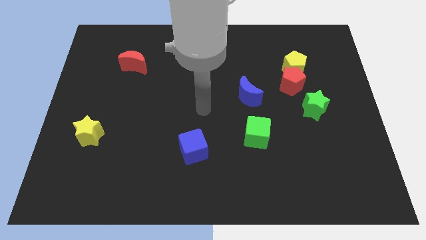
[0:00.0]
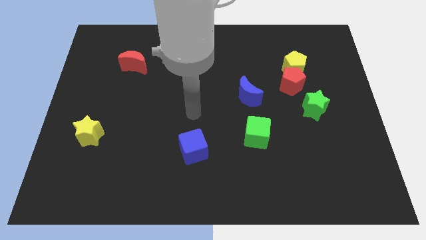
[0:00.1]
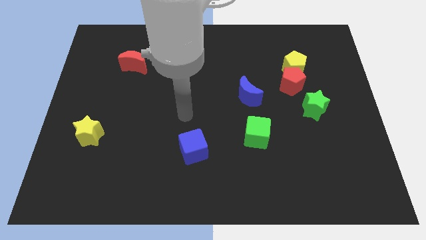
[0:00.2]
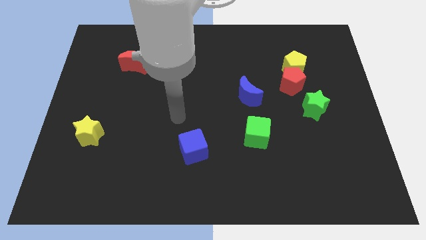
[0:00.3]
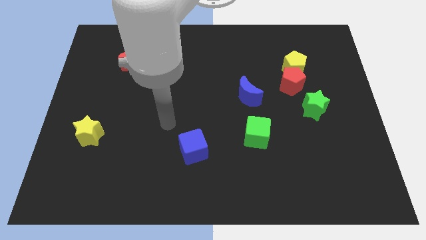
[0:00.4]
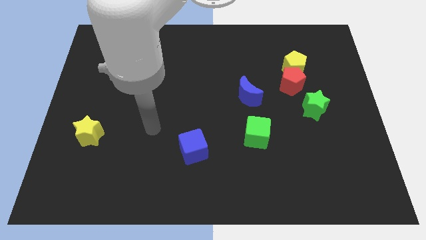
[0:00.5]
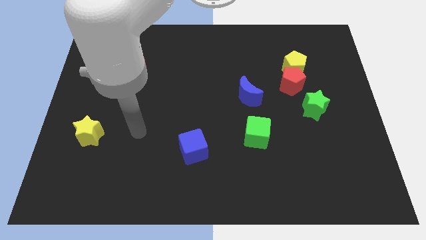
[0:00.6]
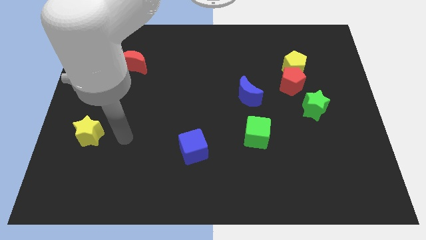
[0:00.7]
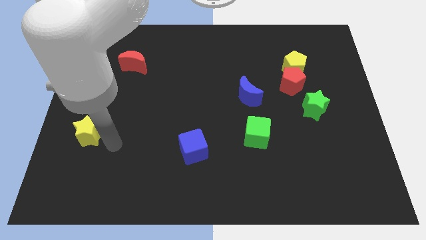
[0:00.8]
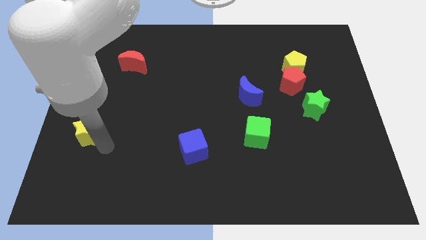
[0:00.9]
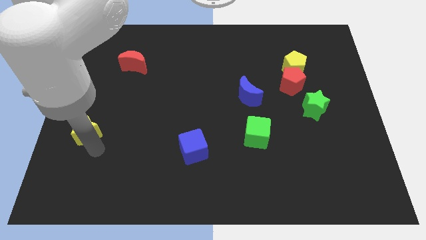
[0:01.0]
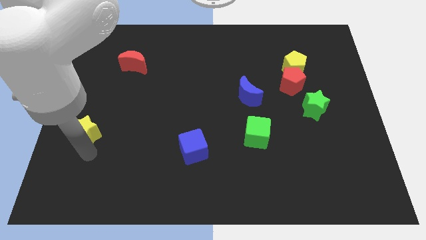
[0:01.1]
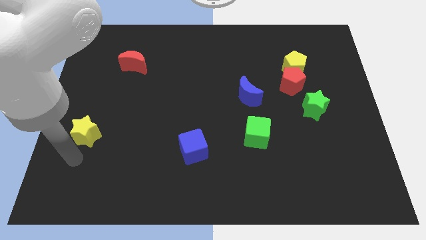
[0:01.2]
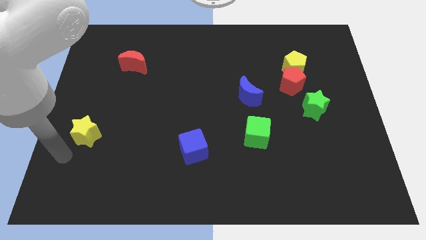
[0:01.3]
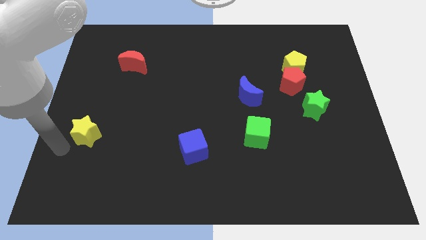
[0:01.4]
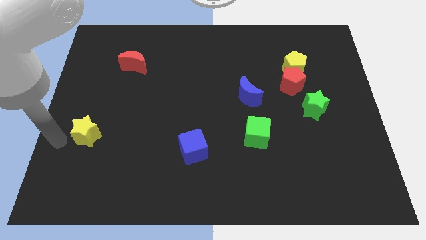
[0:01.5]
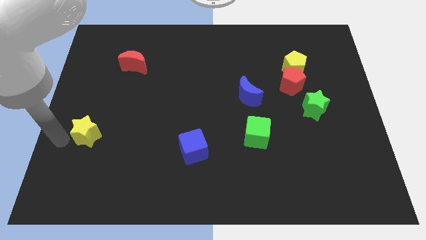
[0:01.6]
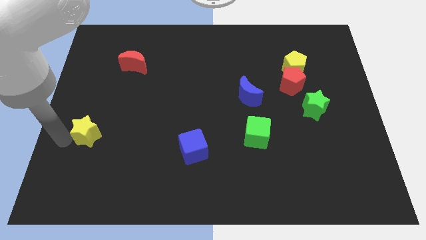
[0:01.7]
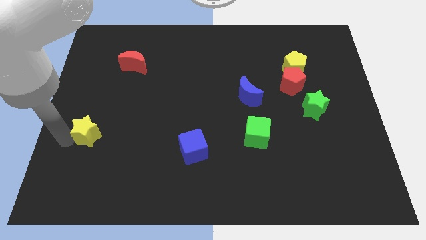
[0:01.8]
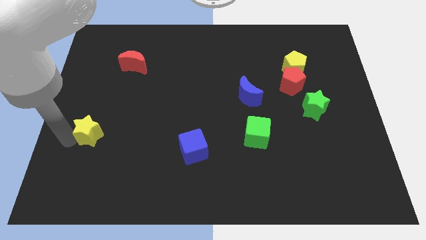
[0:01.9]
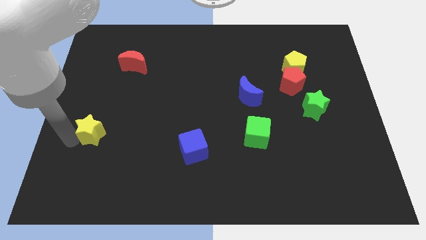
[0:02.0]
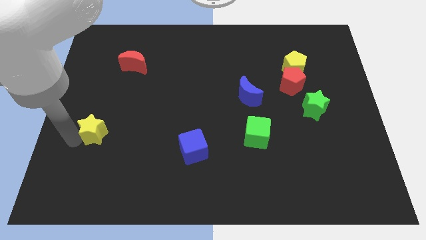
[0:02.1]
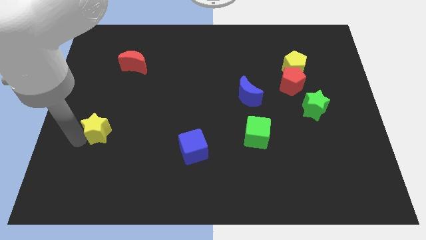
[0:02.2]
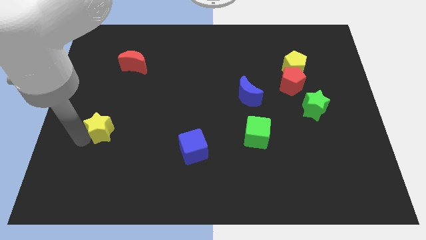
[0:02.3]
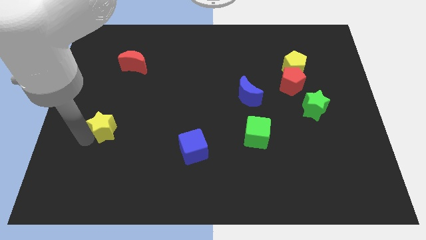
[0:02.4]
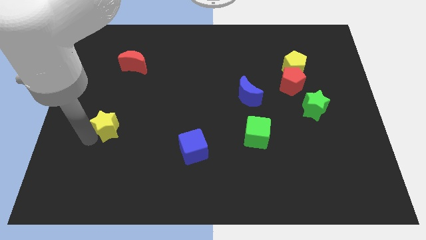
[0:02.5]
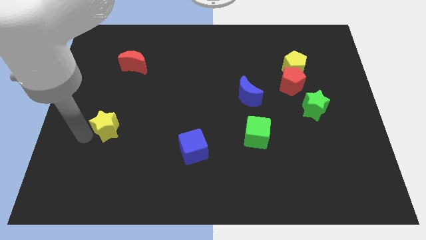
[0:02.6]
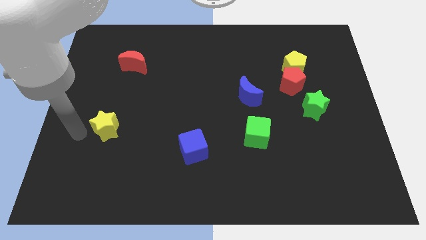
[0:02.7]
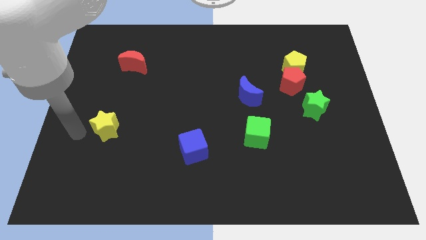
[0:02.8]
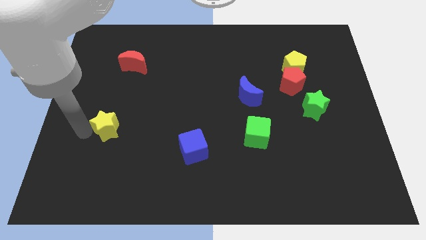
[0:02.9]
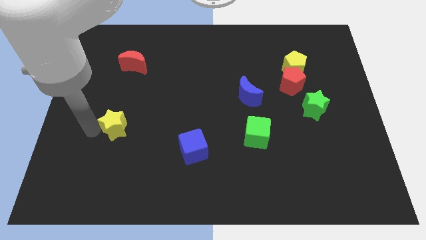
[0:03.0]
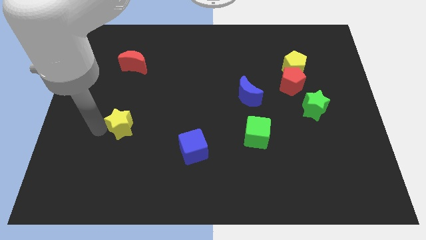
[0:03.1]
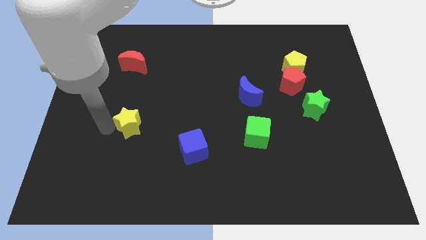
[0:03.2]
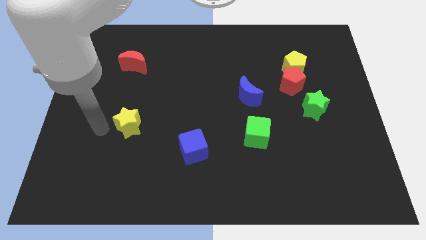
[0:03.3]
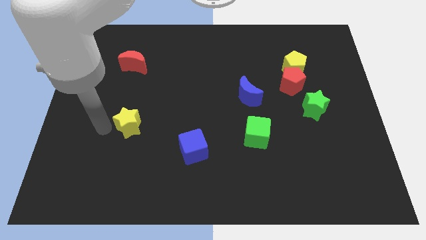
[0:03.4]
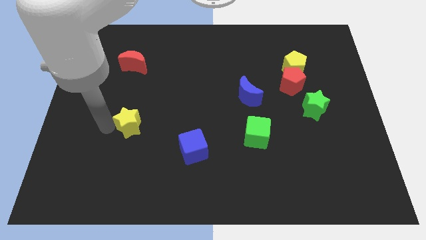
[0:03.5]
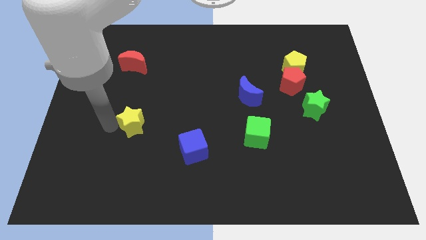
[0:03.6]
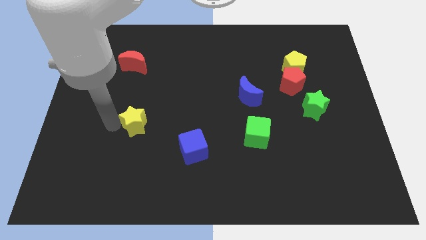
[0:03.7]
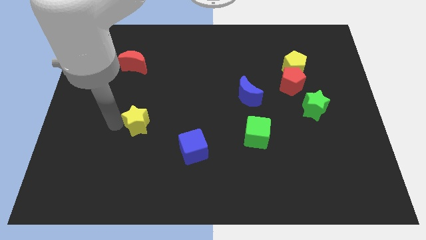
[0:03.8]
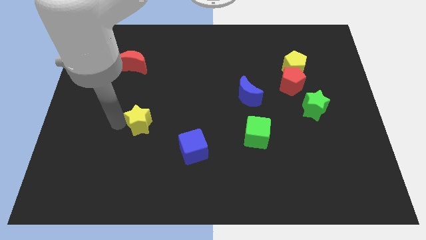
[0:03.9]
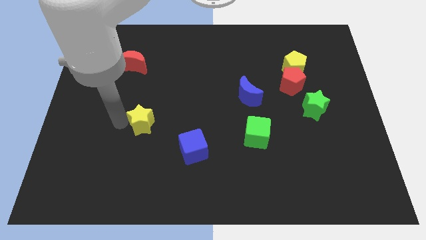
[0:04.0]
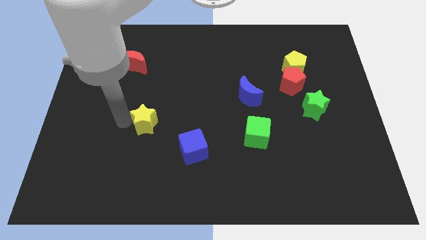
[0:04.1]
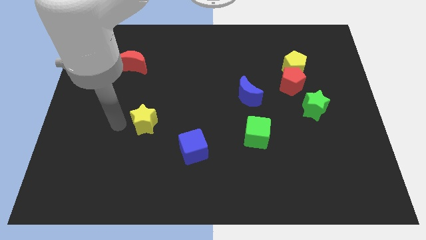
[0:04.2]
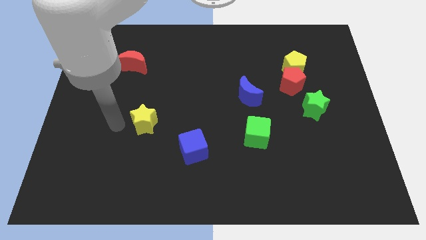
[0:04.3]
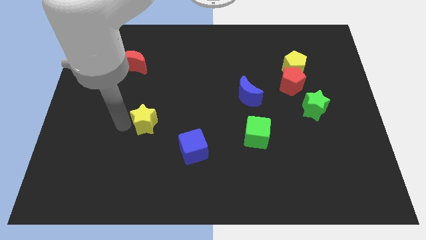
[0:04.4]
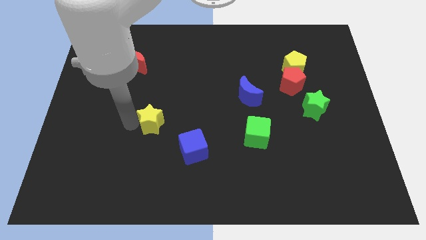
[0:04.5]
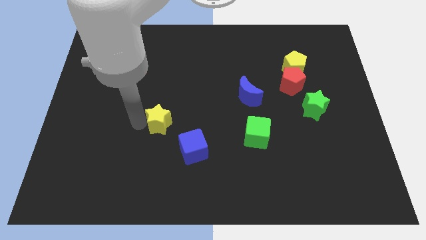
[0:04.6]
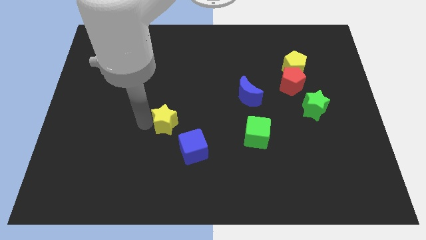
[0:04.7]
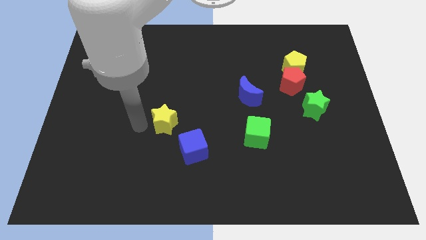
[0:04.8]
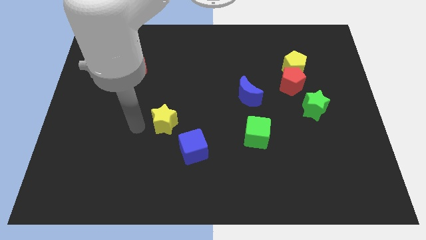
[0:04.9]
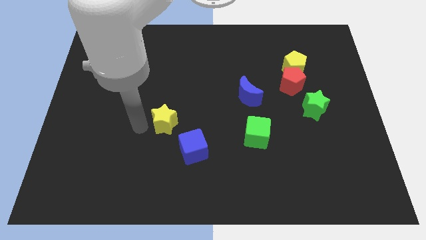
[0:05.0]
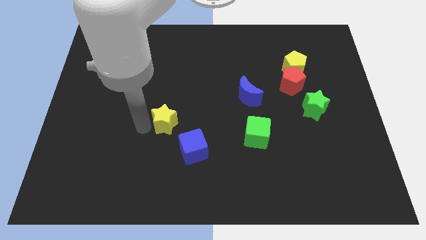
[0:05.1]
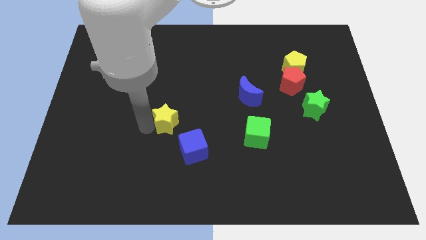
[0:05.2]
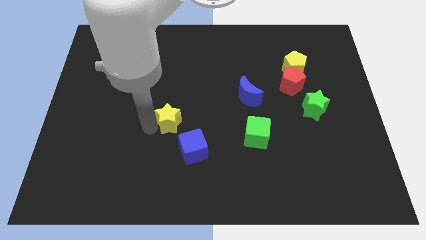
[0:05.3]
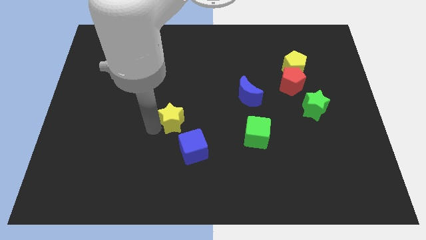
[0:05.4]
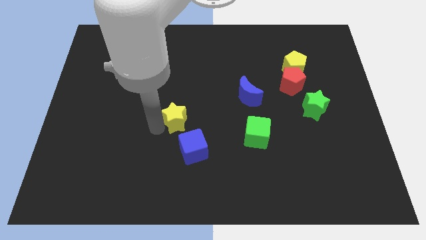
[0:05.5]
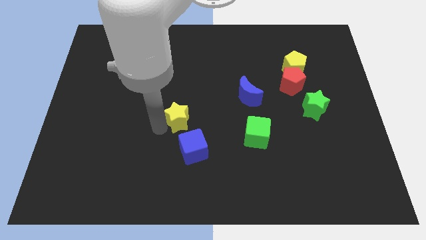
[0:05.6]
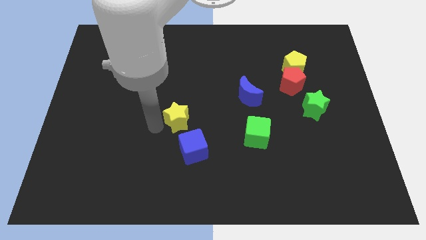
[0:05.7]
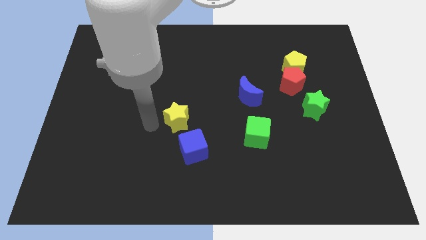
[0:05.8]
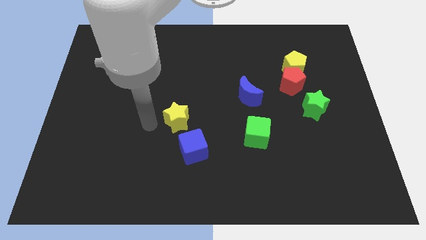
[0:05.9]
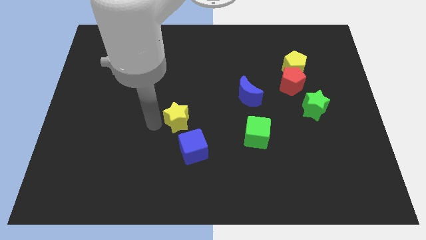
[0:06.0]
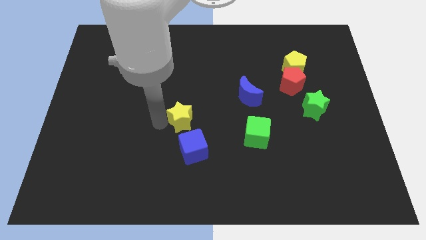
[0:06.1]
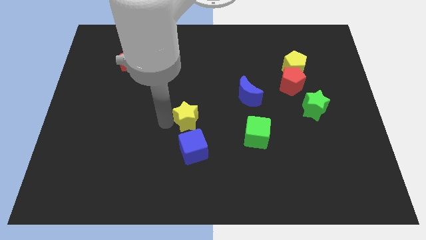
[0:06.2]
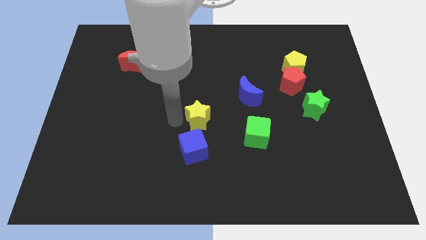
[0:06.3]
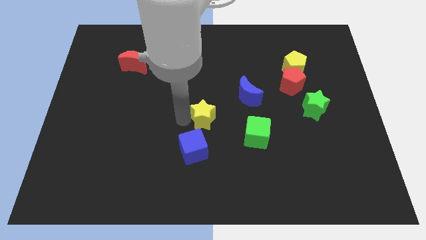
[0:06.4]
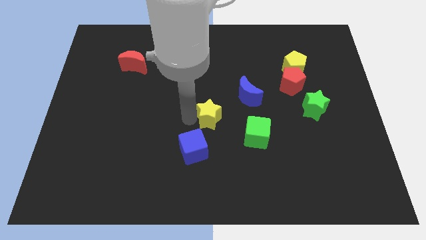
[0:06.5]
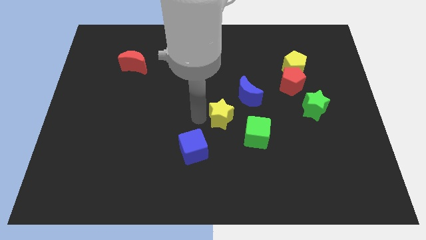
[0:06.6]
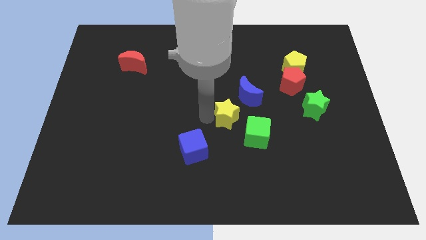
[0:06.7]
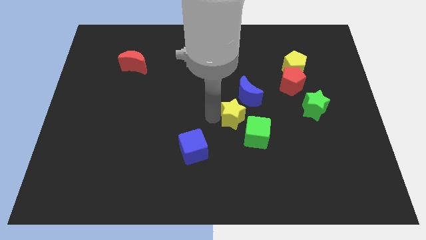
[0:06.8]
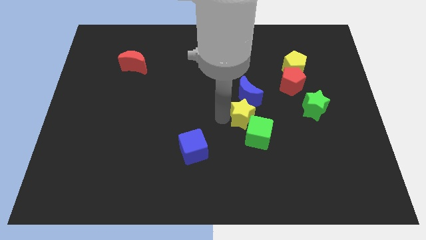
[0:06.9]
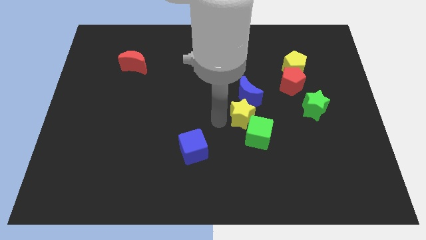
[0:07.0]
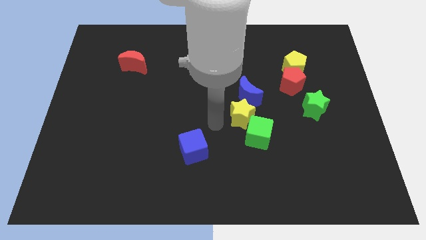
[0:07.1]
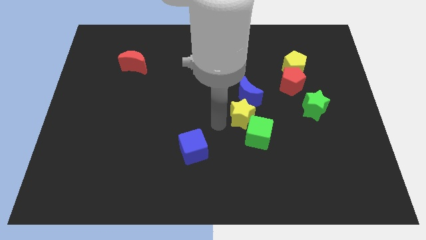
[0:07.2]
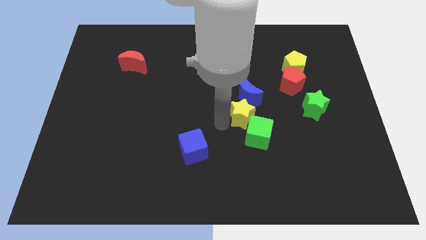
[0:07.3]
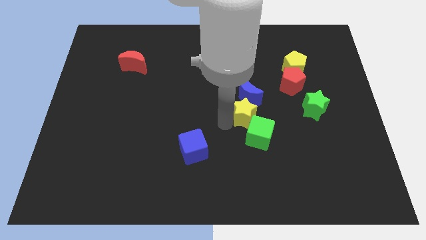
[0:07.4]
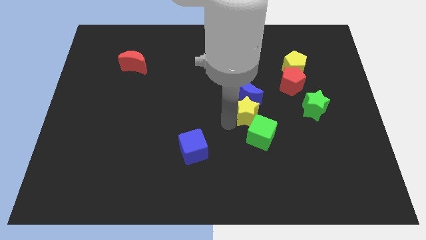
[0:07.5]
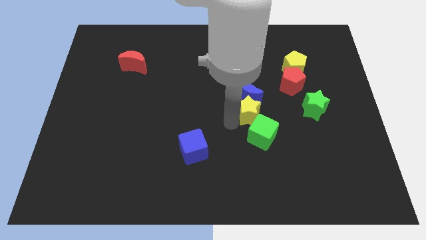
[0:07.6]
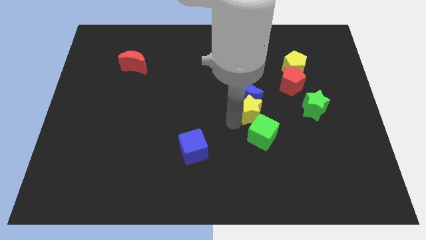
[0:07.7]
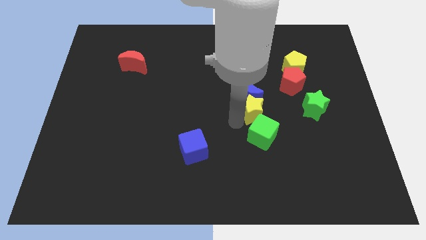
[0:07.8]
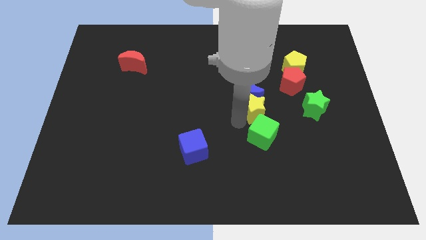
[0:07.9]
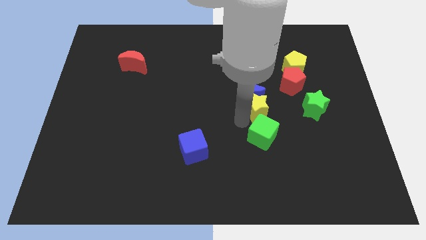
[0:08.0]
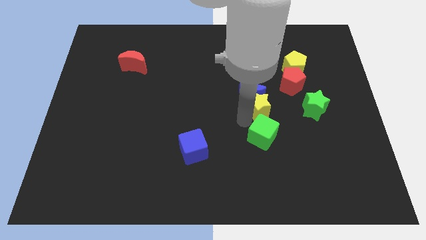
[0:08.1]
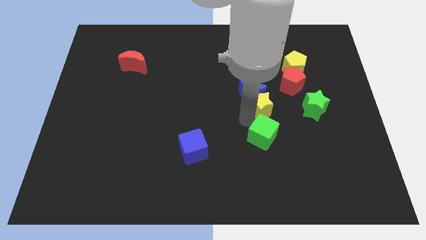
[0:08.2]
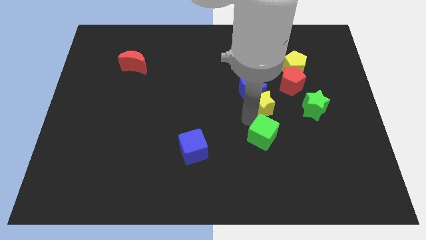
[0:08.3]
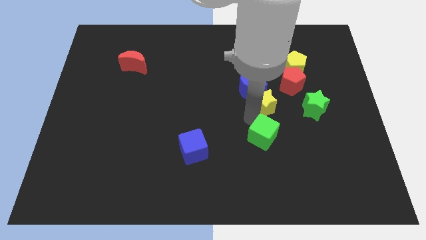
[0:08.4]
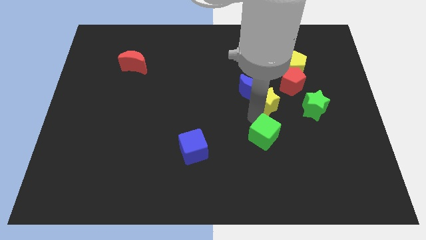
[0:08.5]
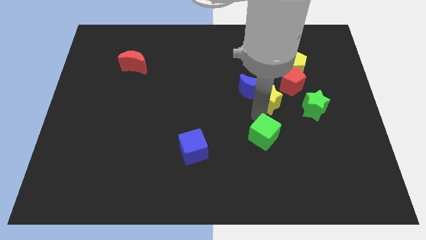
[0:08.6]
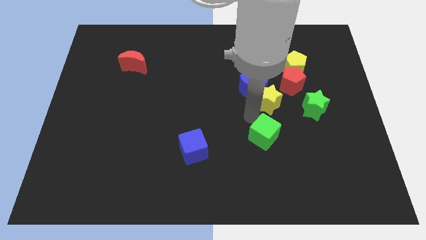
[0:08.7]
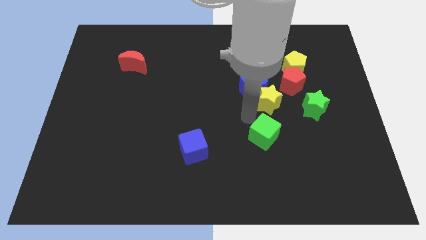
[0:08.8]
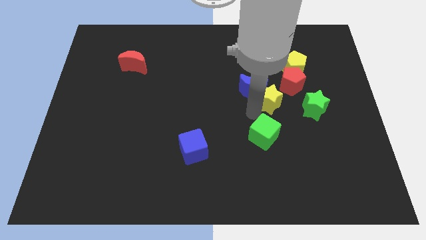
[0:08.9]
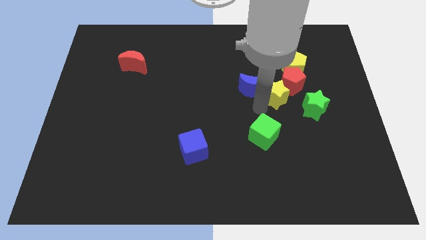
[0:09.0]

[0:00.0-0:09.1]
slide the yellow star next to the red pentagon
